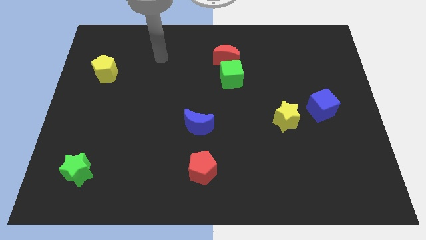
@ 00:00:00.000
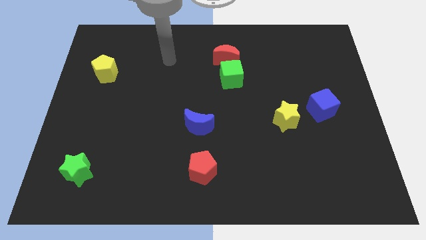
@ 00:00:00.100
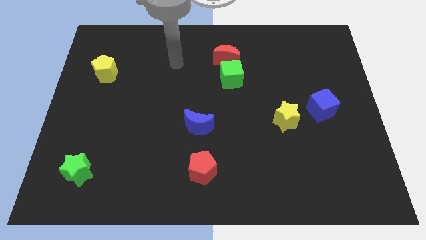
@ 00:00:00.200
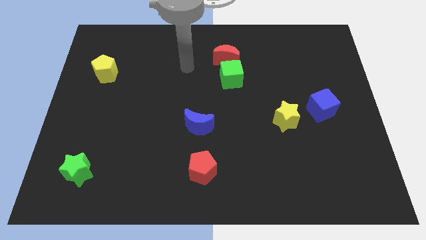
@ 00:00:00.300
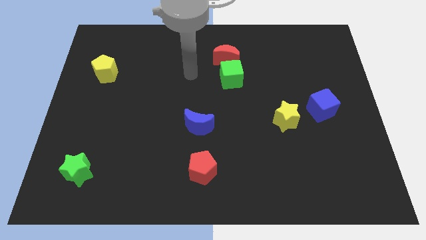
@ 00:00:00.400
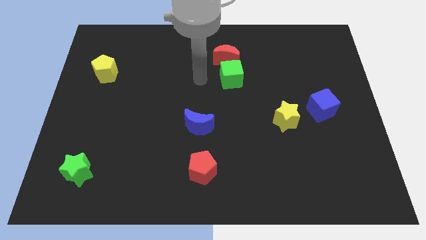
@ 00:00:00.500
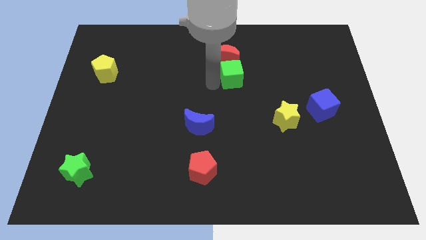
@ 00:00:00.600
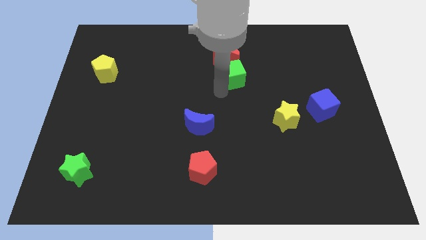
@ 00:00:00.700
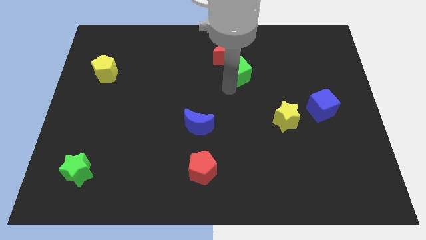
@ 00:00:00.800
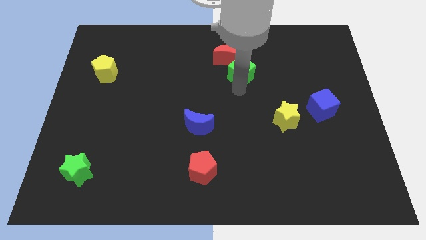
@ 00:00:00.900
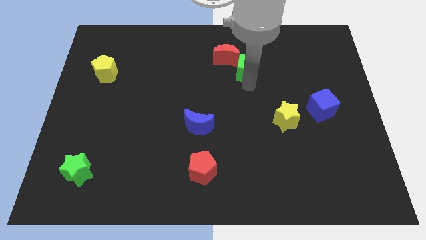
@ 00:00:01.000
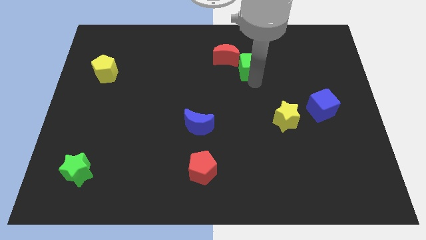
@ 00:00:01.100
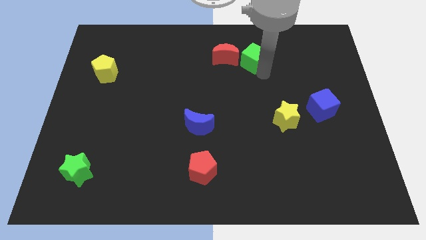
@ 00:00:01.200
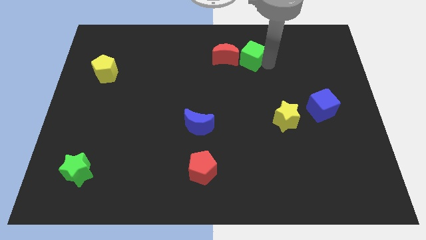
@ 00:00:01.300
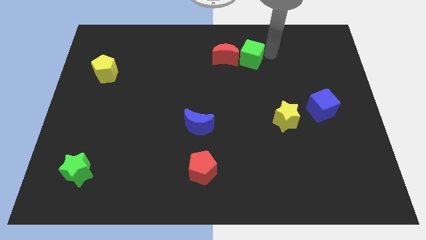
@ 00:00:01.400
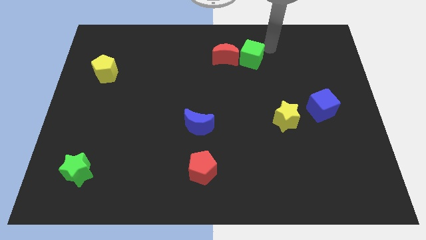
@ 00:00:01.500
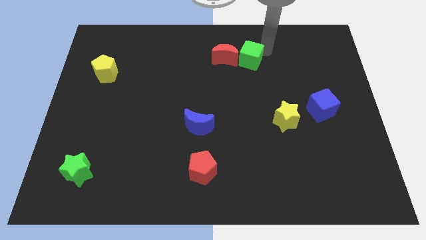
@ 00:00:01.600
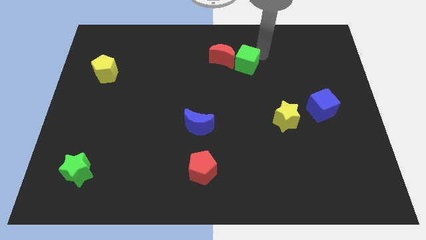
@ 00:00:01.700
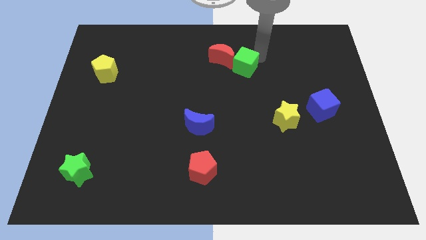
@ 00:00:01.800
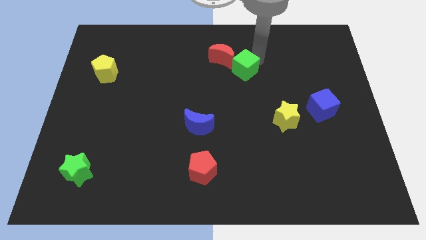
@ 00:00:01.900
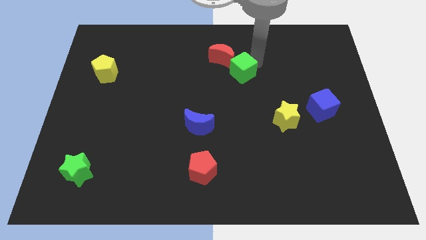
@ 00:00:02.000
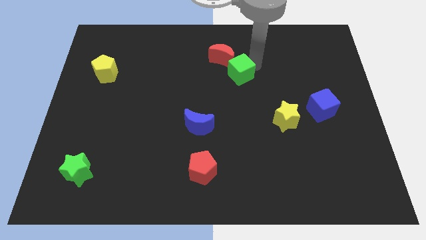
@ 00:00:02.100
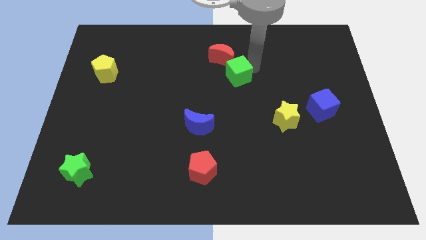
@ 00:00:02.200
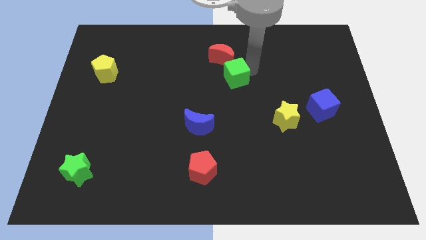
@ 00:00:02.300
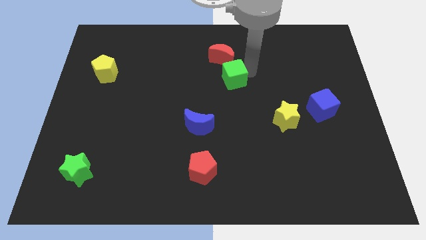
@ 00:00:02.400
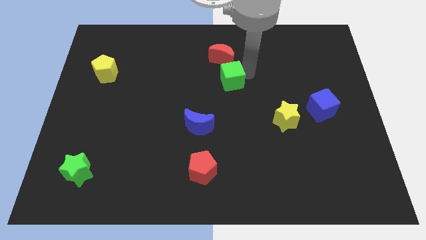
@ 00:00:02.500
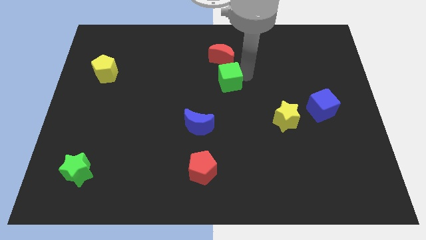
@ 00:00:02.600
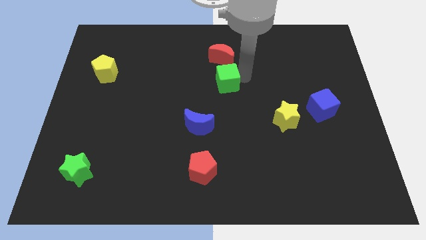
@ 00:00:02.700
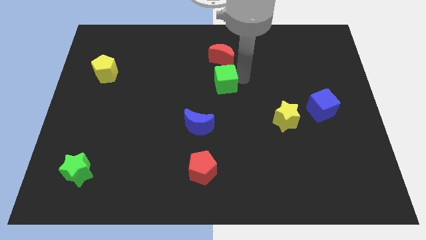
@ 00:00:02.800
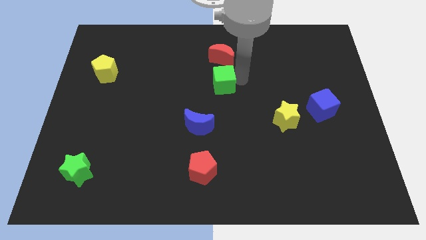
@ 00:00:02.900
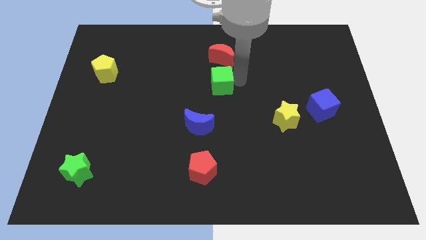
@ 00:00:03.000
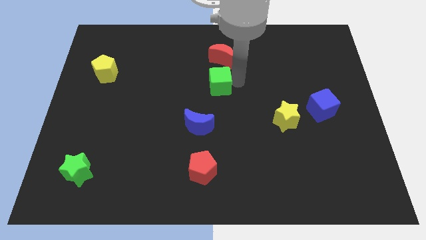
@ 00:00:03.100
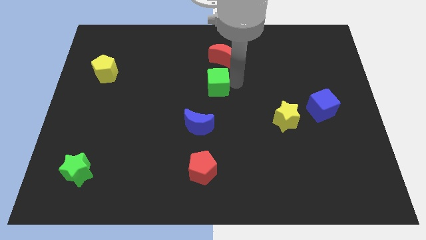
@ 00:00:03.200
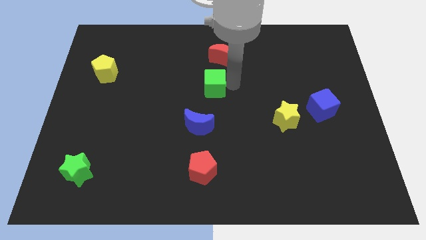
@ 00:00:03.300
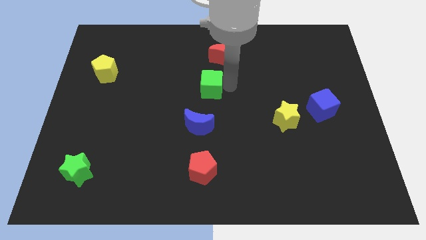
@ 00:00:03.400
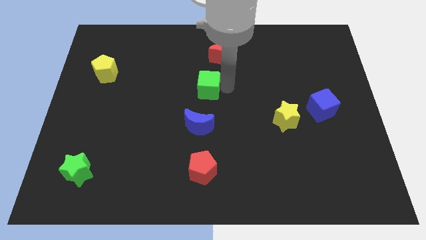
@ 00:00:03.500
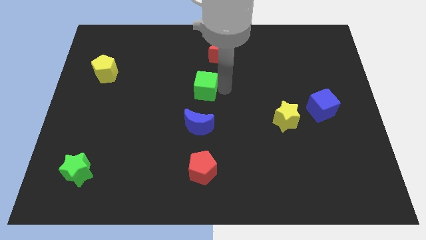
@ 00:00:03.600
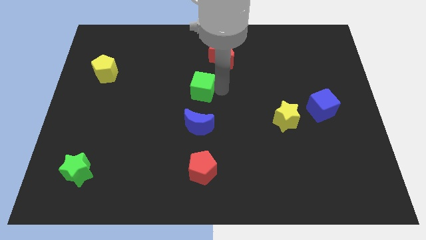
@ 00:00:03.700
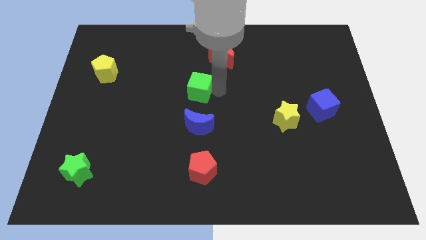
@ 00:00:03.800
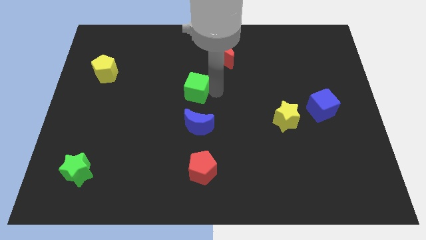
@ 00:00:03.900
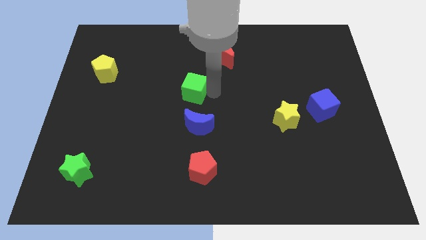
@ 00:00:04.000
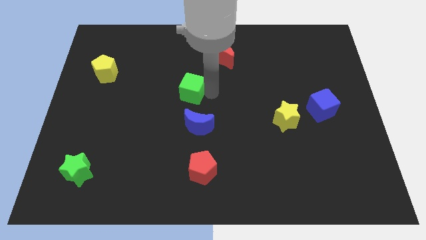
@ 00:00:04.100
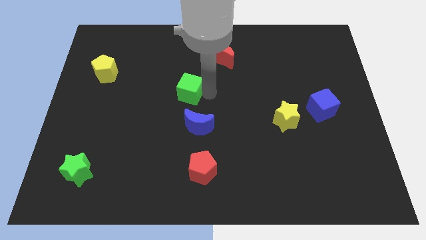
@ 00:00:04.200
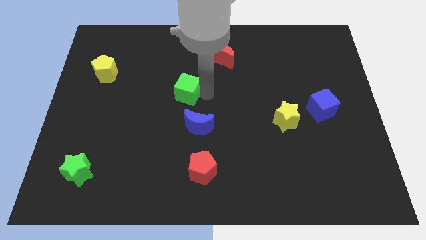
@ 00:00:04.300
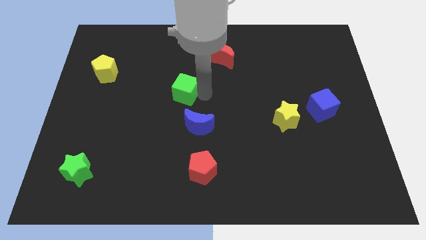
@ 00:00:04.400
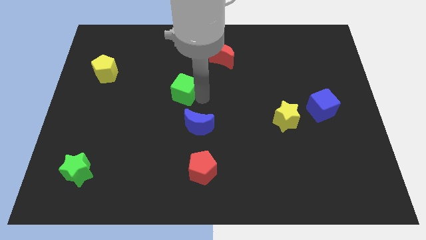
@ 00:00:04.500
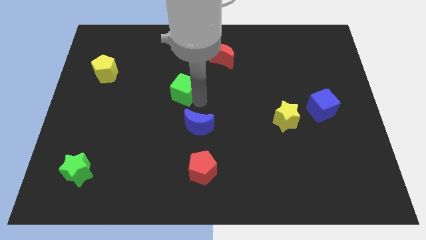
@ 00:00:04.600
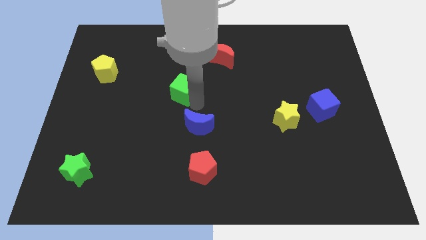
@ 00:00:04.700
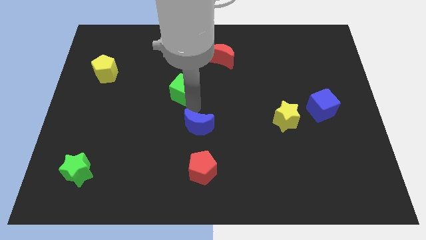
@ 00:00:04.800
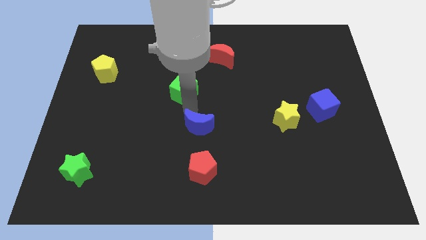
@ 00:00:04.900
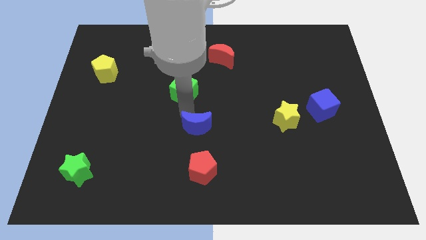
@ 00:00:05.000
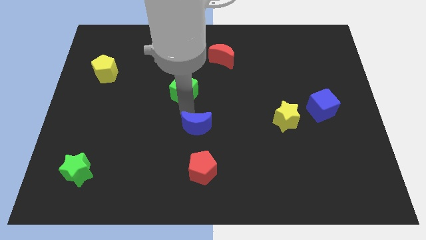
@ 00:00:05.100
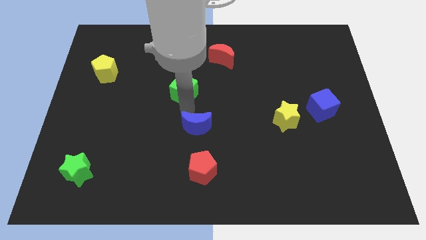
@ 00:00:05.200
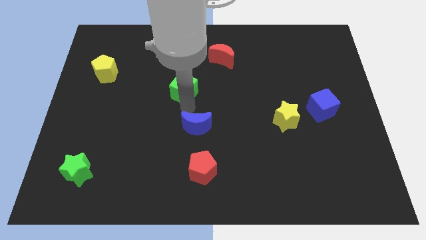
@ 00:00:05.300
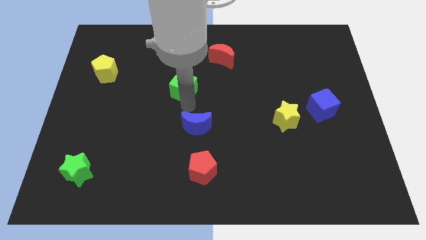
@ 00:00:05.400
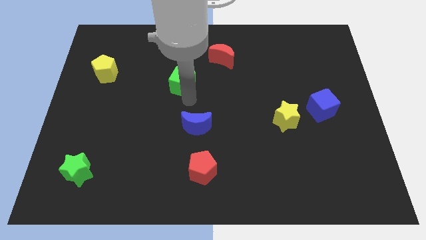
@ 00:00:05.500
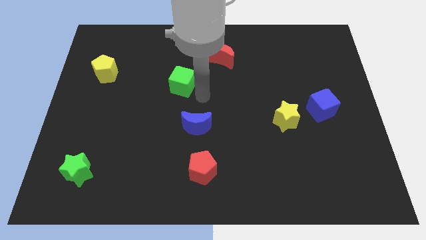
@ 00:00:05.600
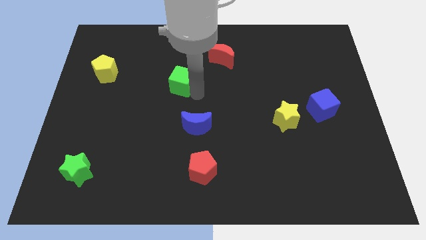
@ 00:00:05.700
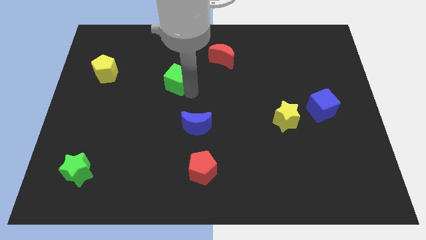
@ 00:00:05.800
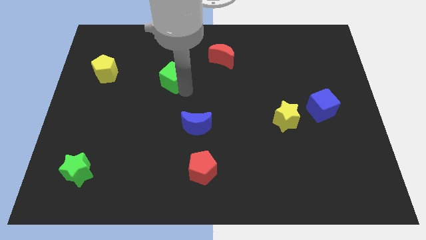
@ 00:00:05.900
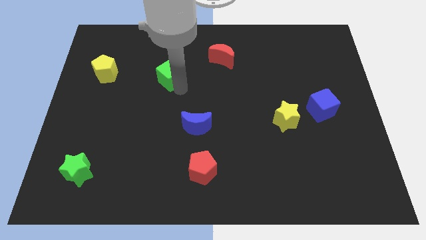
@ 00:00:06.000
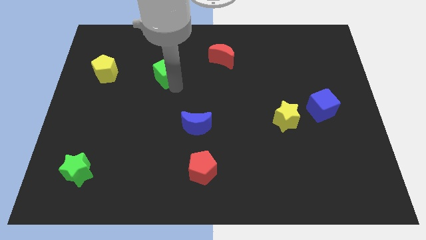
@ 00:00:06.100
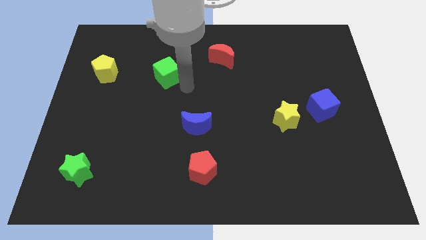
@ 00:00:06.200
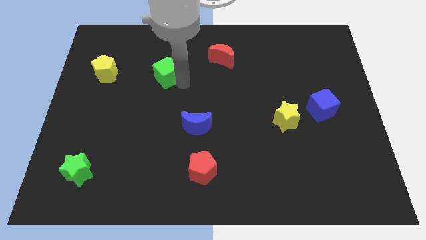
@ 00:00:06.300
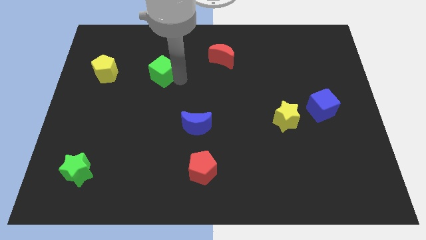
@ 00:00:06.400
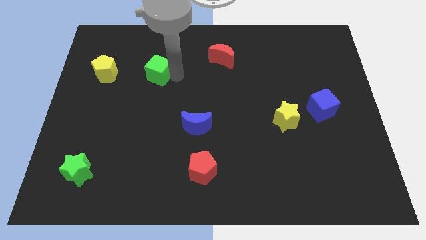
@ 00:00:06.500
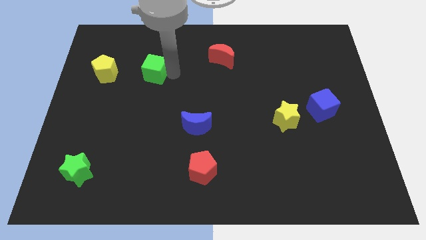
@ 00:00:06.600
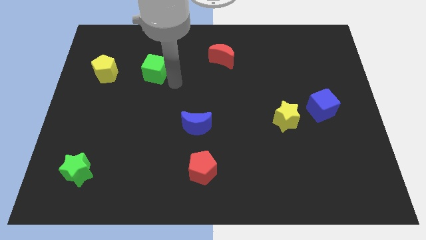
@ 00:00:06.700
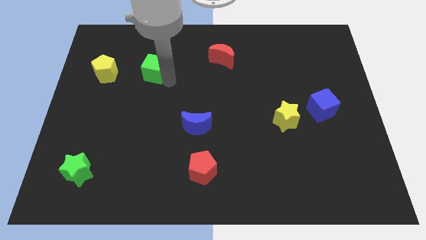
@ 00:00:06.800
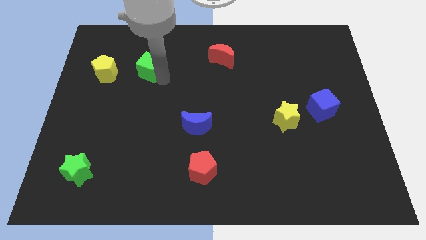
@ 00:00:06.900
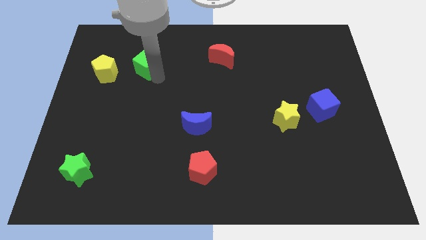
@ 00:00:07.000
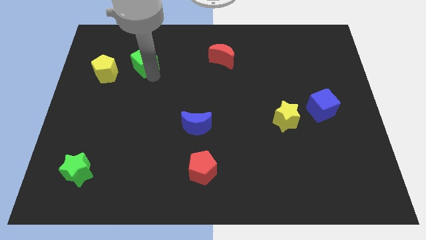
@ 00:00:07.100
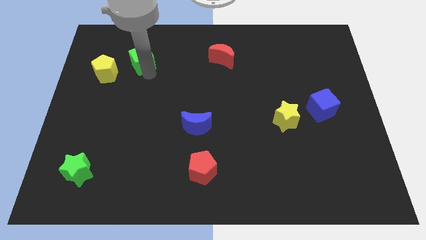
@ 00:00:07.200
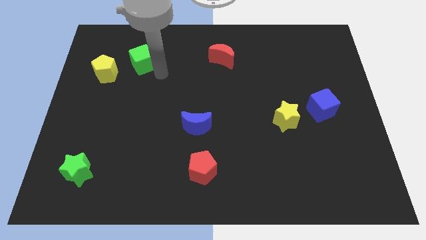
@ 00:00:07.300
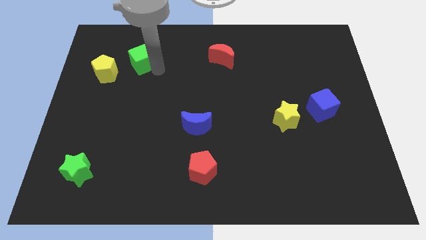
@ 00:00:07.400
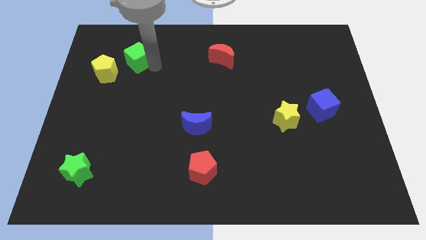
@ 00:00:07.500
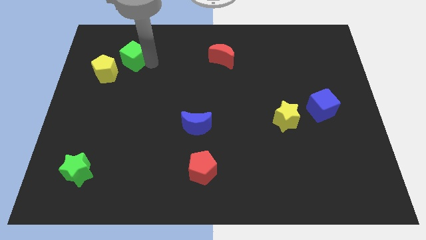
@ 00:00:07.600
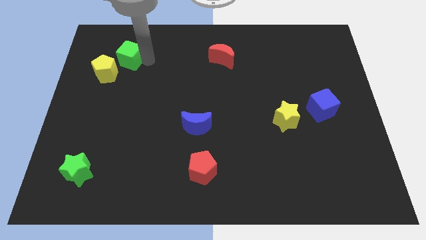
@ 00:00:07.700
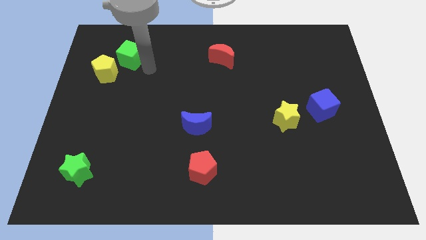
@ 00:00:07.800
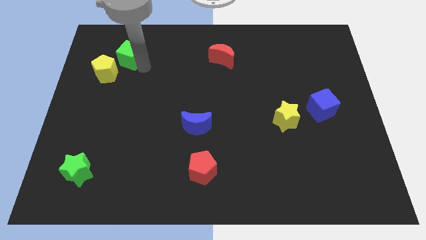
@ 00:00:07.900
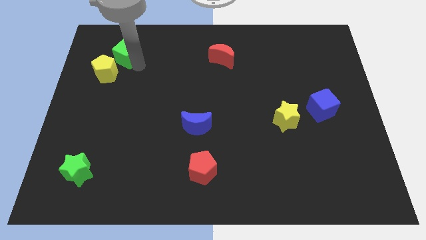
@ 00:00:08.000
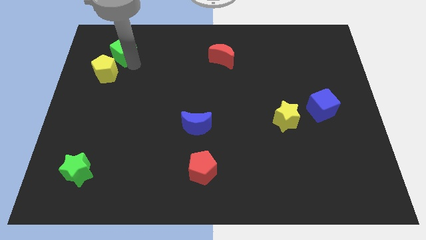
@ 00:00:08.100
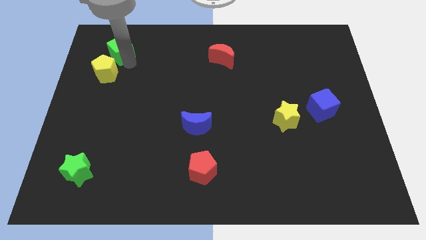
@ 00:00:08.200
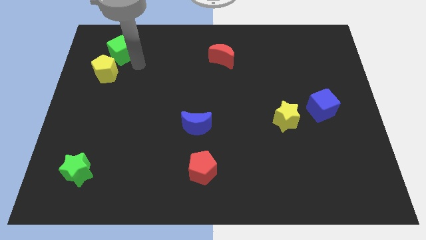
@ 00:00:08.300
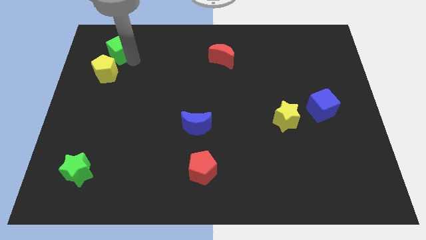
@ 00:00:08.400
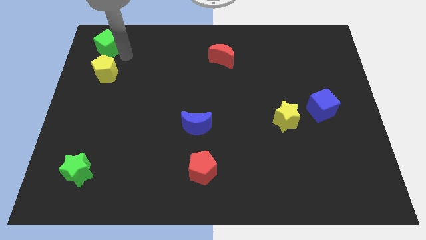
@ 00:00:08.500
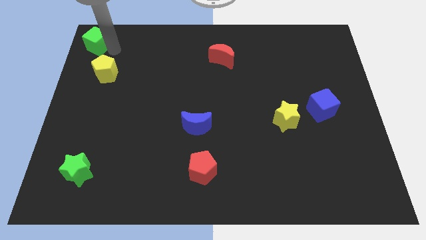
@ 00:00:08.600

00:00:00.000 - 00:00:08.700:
move the green cube to the top left of the board
